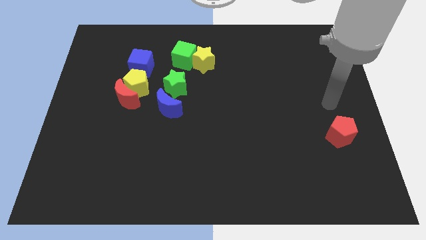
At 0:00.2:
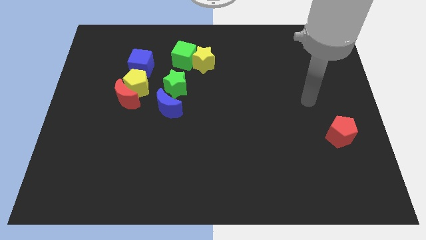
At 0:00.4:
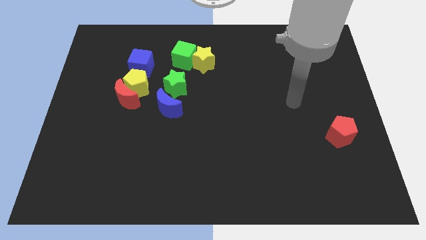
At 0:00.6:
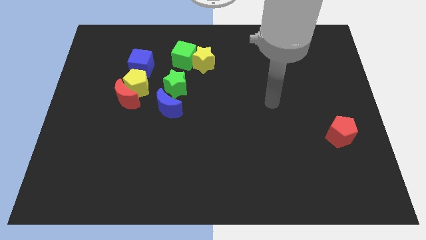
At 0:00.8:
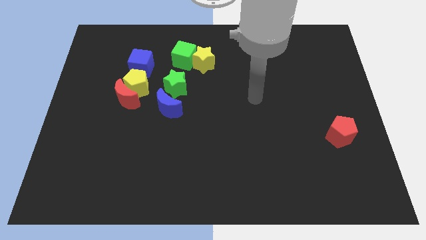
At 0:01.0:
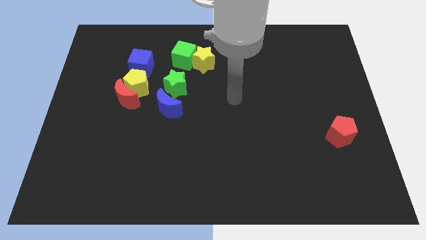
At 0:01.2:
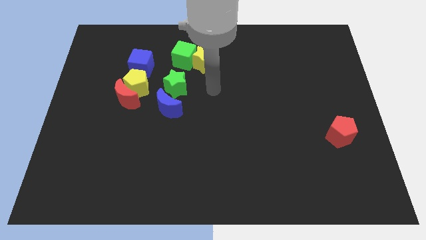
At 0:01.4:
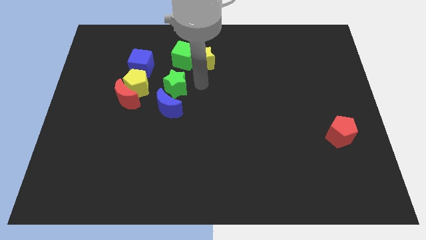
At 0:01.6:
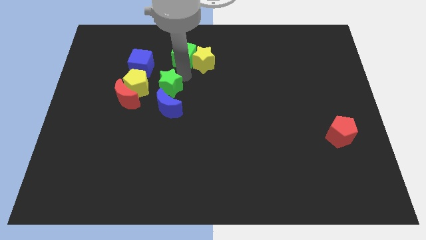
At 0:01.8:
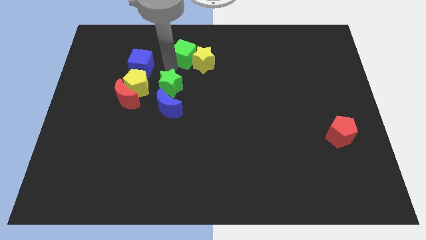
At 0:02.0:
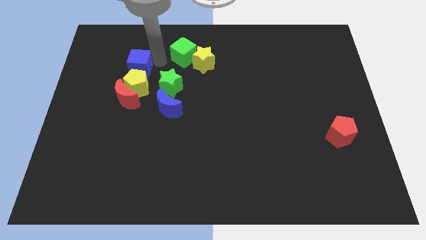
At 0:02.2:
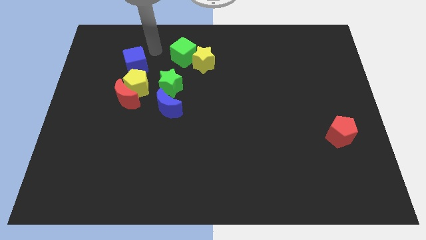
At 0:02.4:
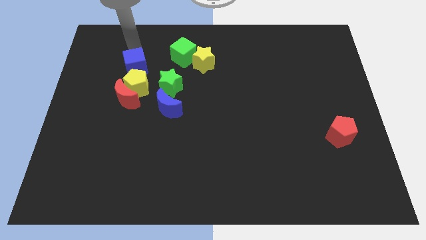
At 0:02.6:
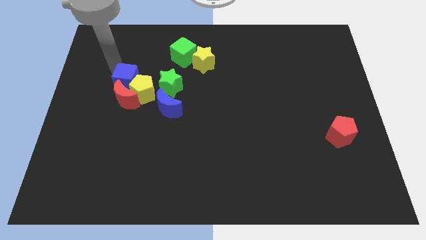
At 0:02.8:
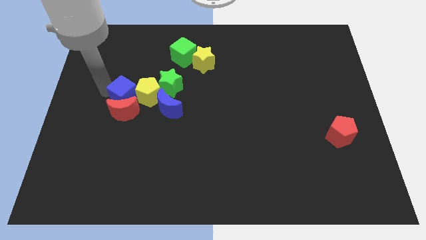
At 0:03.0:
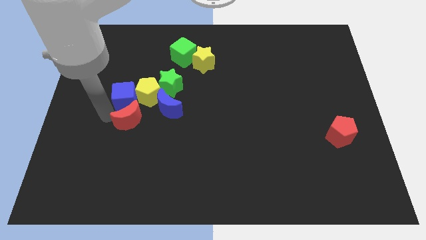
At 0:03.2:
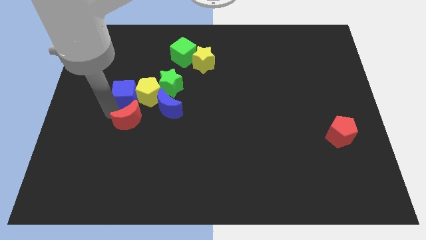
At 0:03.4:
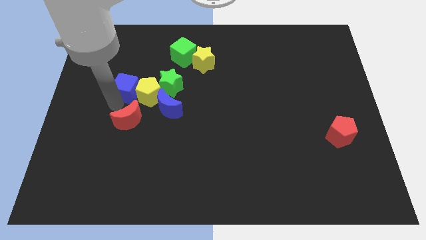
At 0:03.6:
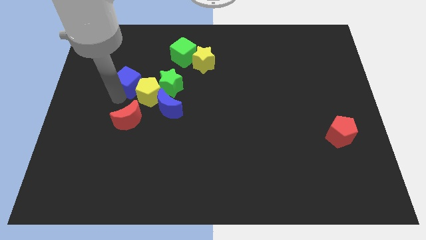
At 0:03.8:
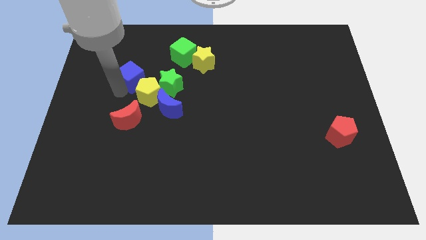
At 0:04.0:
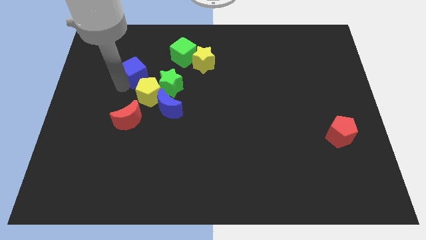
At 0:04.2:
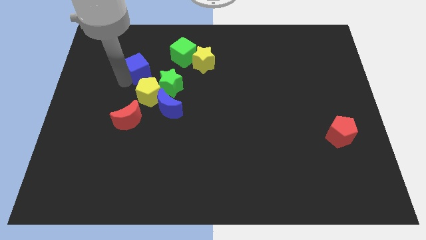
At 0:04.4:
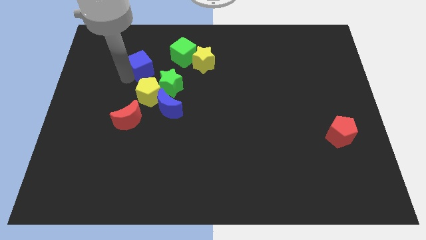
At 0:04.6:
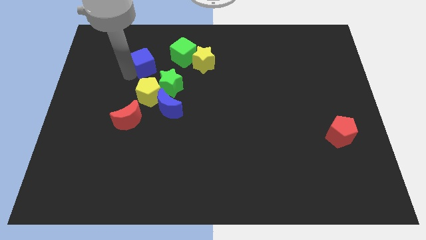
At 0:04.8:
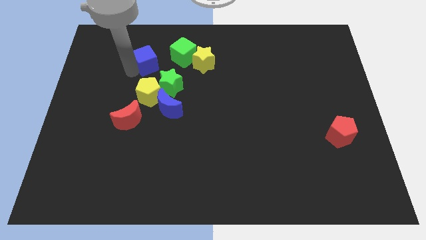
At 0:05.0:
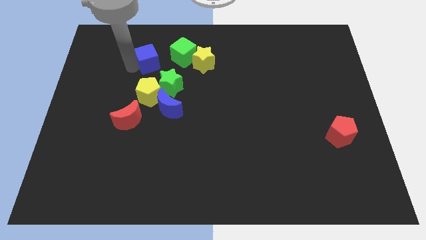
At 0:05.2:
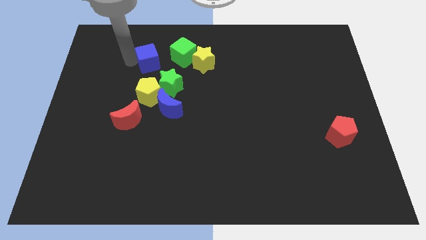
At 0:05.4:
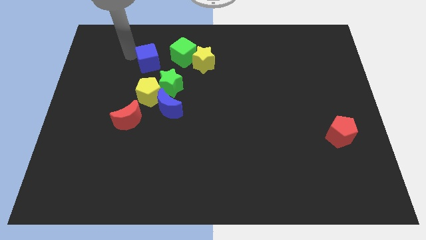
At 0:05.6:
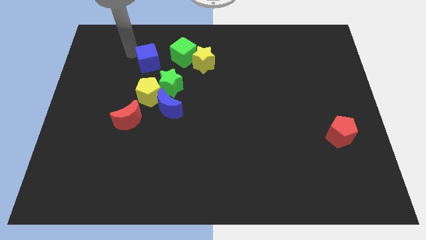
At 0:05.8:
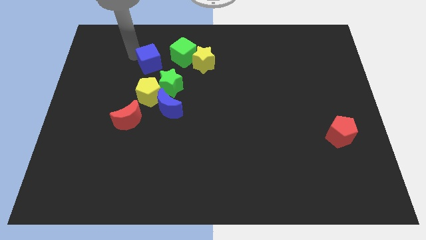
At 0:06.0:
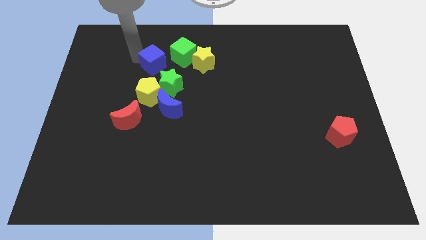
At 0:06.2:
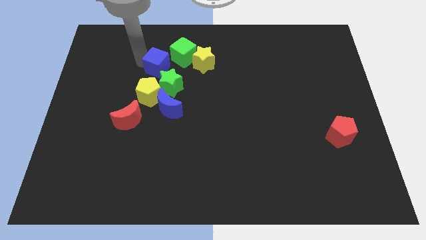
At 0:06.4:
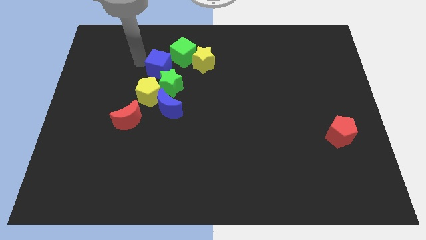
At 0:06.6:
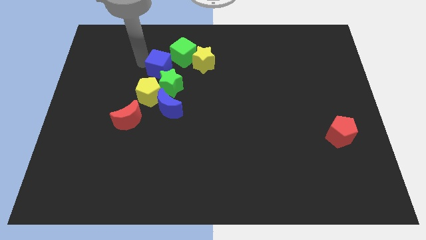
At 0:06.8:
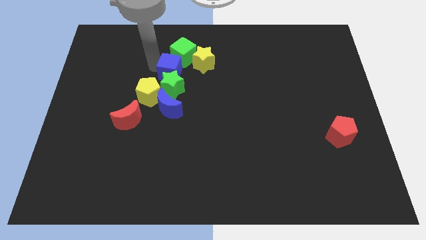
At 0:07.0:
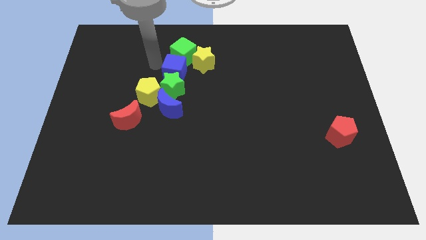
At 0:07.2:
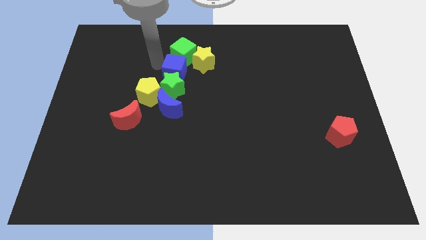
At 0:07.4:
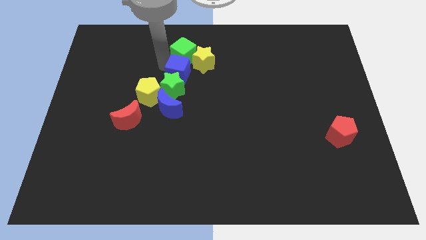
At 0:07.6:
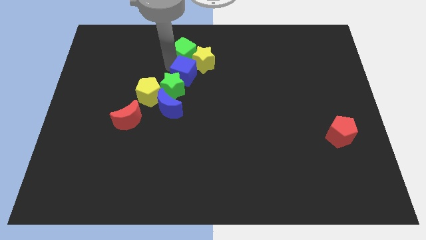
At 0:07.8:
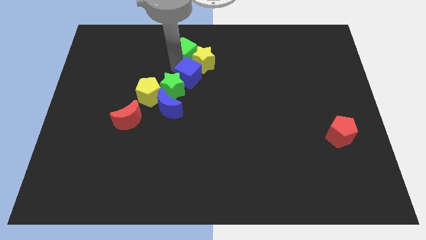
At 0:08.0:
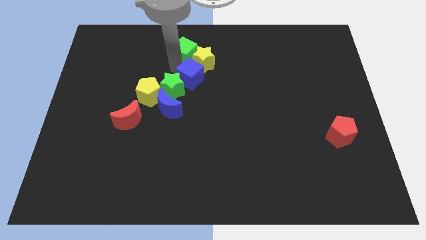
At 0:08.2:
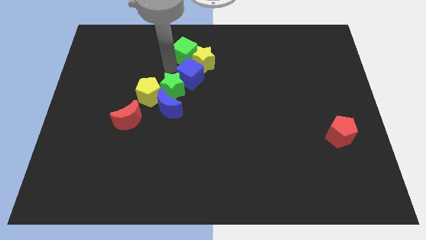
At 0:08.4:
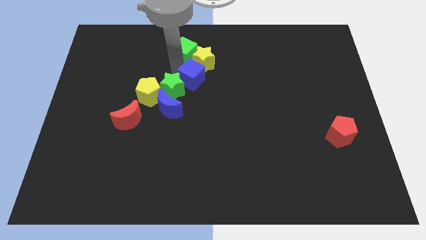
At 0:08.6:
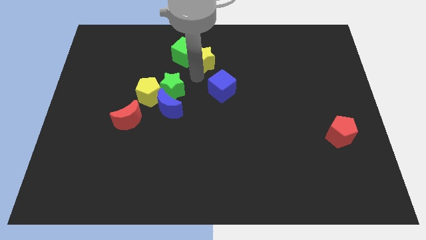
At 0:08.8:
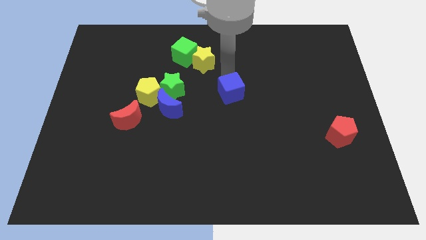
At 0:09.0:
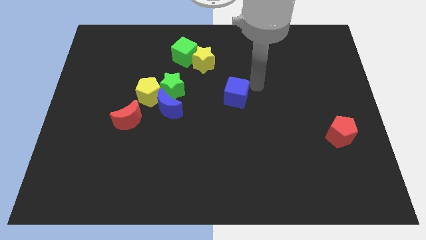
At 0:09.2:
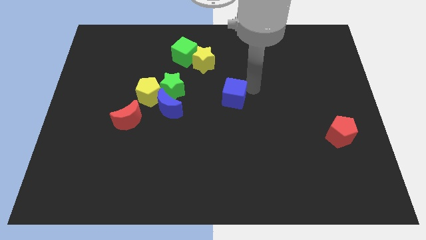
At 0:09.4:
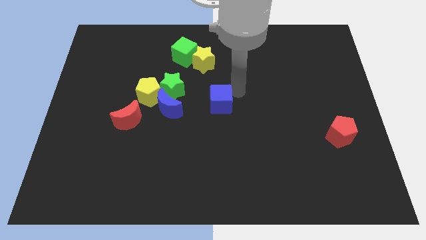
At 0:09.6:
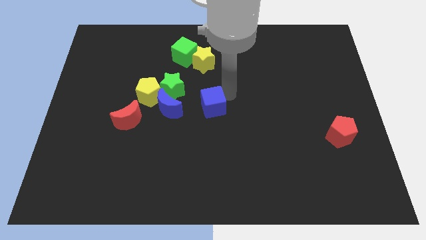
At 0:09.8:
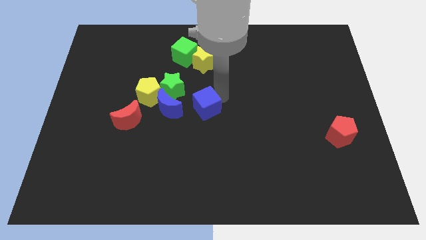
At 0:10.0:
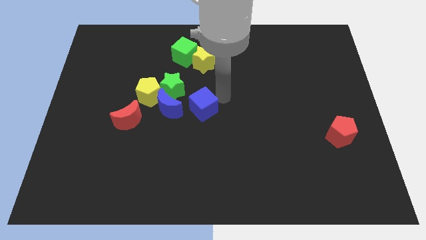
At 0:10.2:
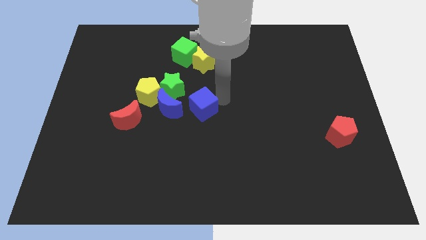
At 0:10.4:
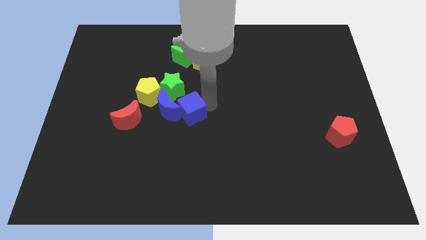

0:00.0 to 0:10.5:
put the blue cube to the right of the red moon

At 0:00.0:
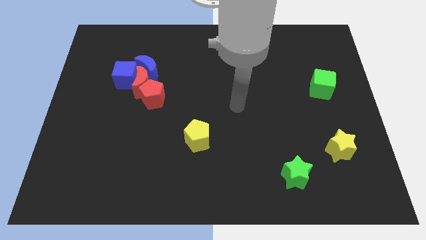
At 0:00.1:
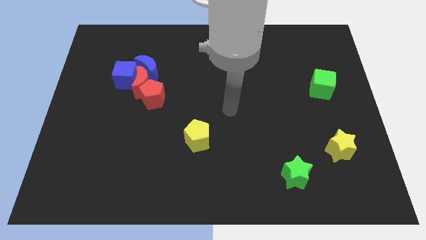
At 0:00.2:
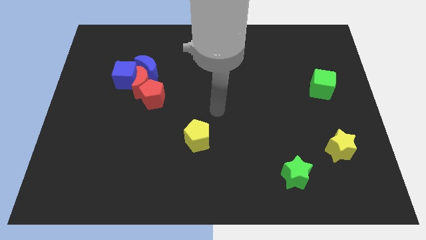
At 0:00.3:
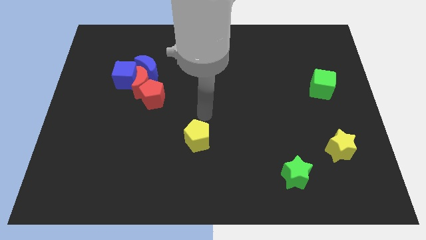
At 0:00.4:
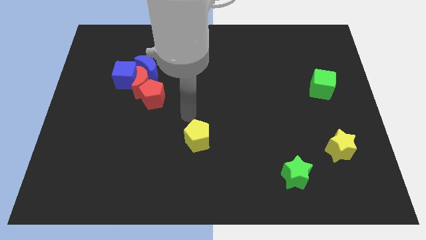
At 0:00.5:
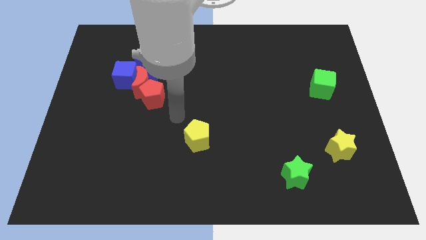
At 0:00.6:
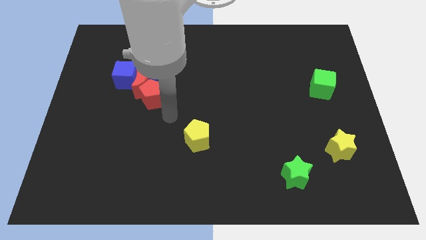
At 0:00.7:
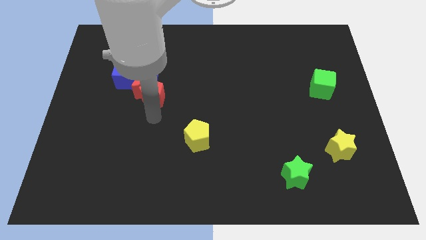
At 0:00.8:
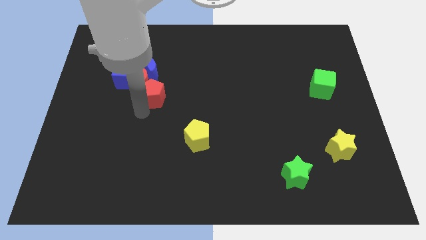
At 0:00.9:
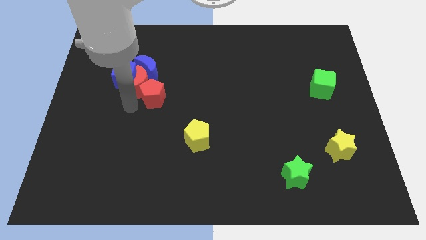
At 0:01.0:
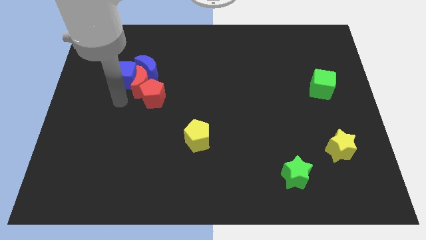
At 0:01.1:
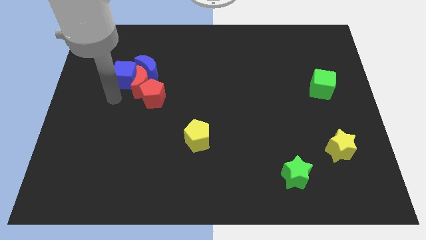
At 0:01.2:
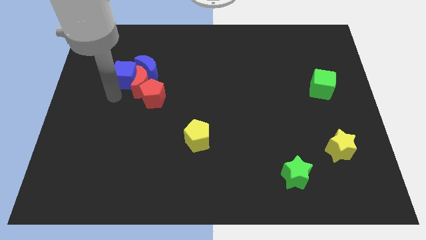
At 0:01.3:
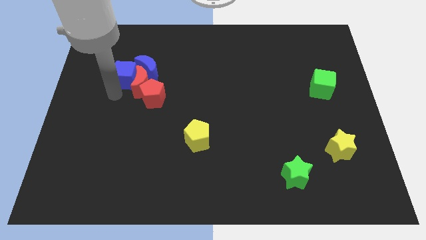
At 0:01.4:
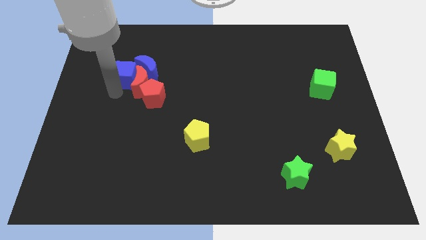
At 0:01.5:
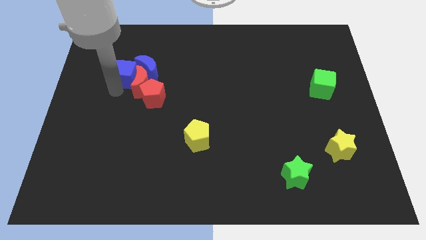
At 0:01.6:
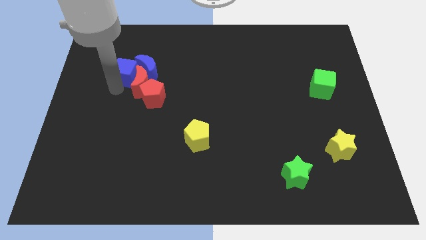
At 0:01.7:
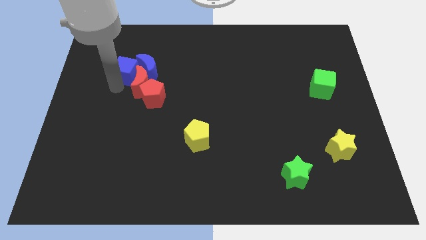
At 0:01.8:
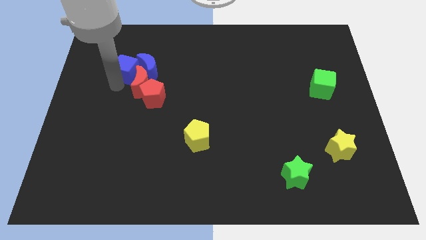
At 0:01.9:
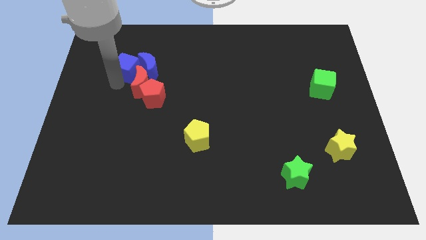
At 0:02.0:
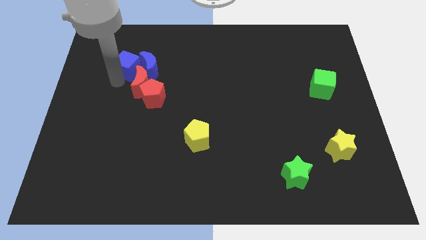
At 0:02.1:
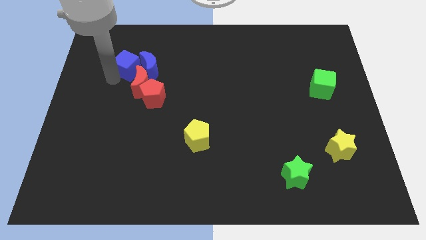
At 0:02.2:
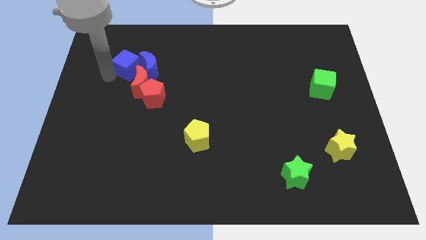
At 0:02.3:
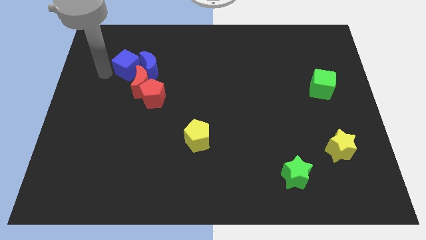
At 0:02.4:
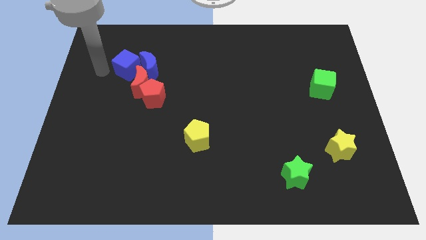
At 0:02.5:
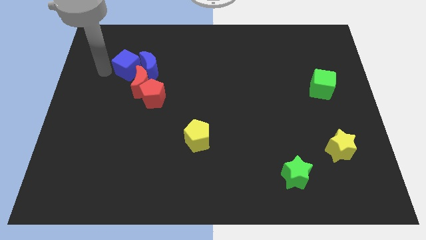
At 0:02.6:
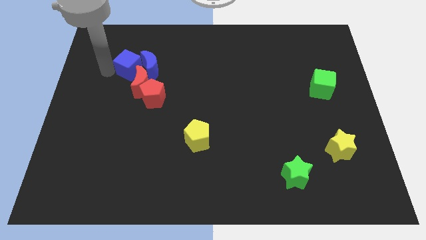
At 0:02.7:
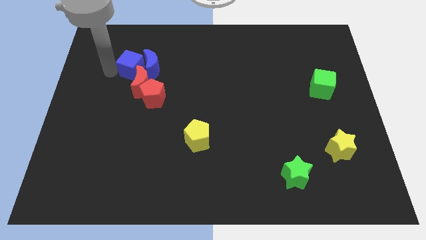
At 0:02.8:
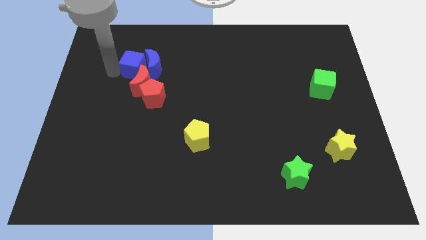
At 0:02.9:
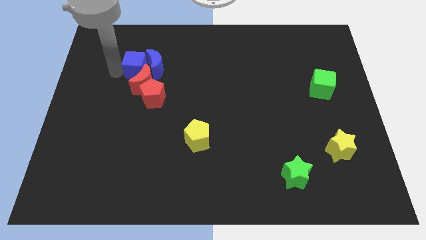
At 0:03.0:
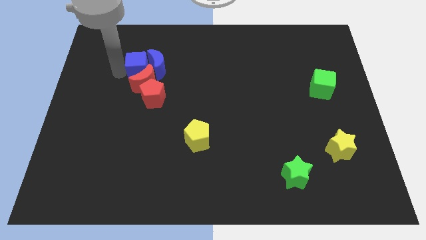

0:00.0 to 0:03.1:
slide the blue cube above the red pentagon
